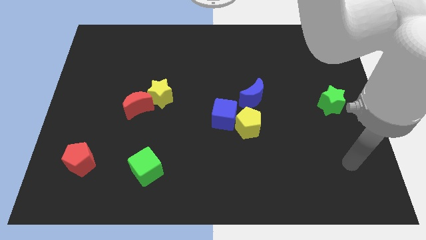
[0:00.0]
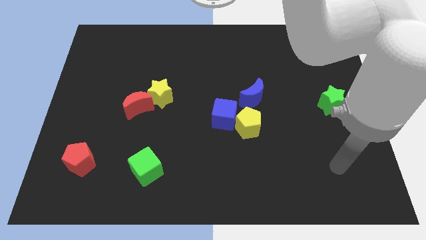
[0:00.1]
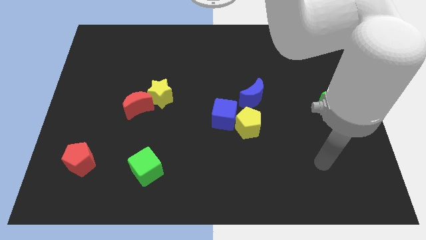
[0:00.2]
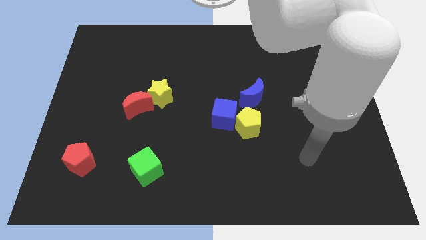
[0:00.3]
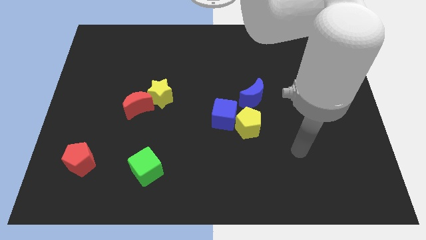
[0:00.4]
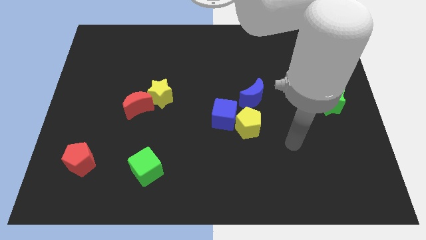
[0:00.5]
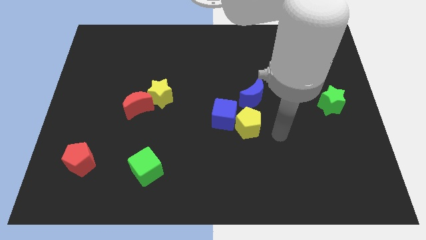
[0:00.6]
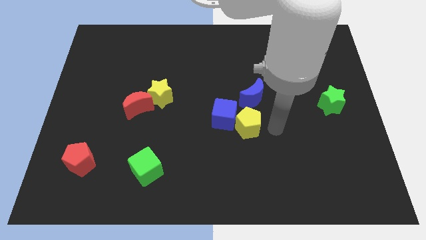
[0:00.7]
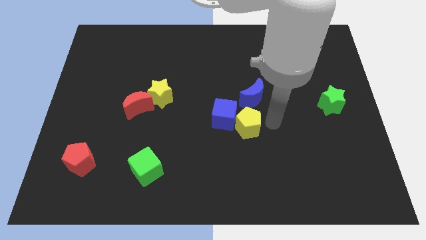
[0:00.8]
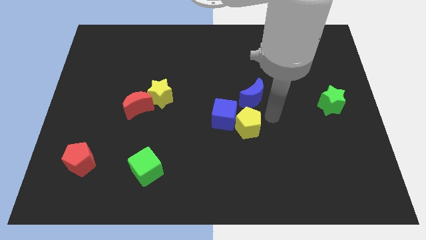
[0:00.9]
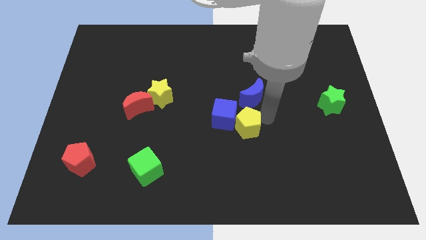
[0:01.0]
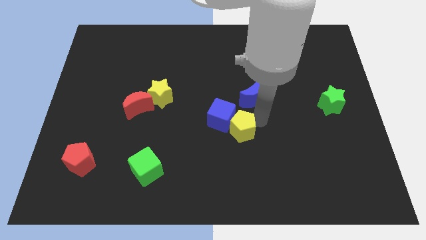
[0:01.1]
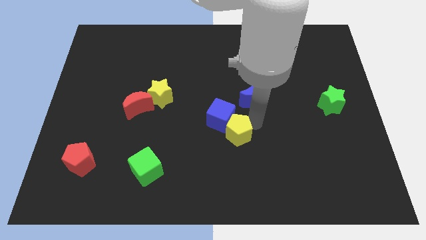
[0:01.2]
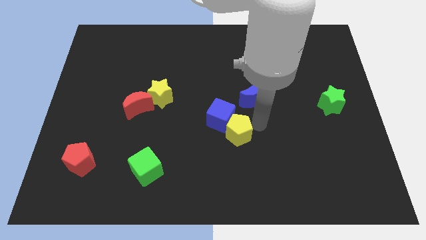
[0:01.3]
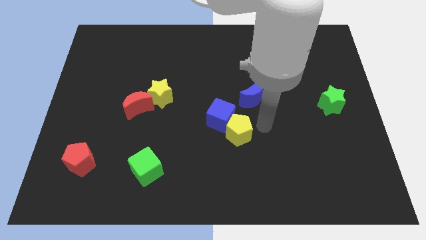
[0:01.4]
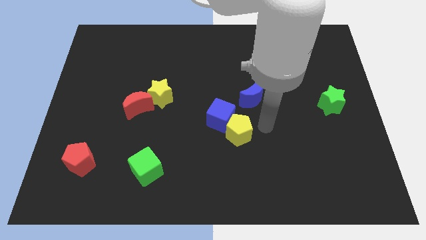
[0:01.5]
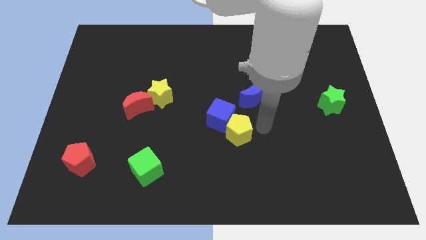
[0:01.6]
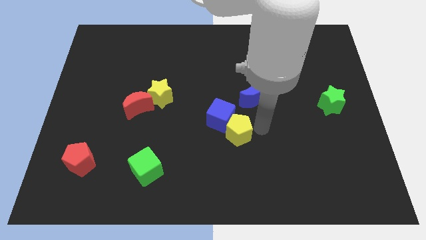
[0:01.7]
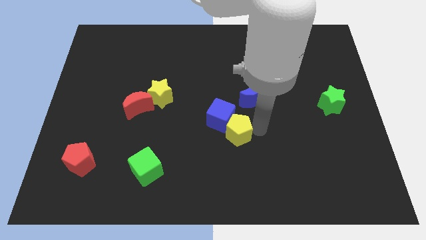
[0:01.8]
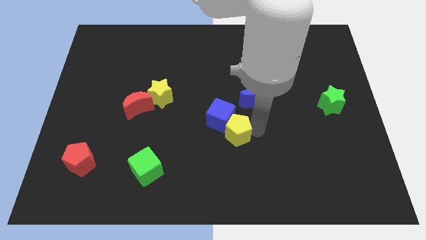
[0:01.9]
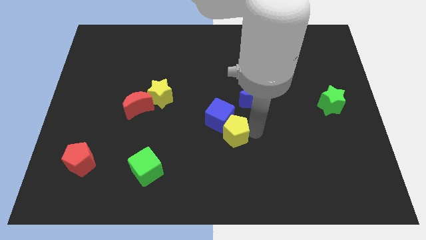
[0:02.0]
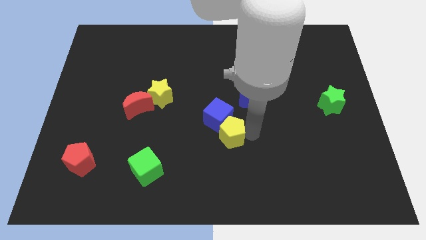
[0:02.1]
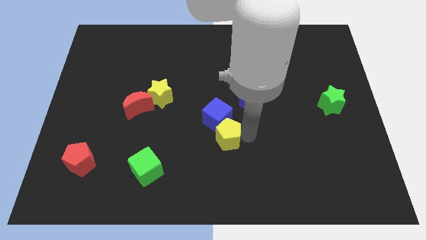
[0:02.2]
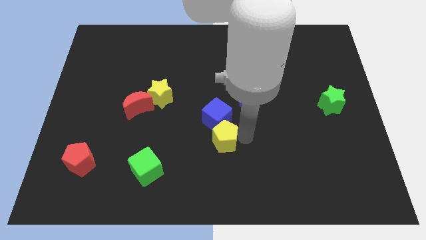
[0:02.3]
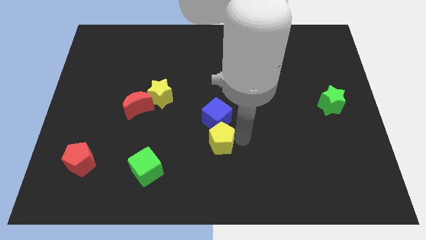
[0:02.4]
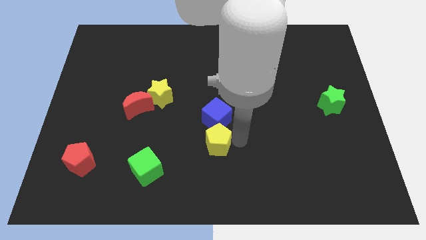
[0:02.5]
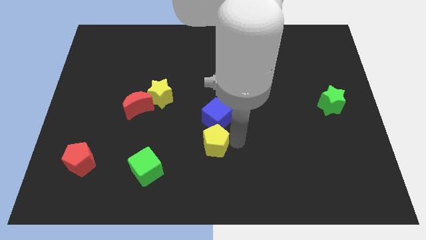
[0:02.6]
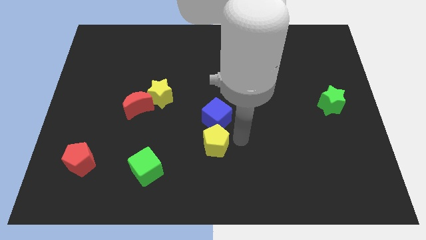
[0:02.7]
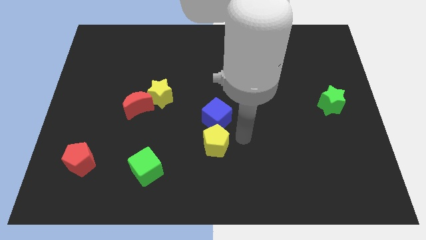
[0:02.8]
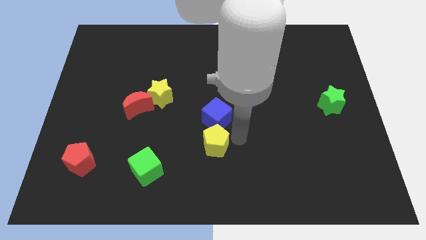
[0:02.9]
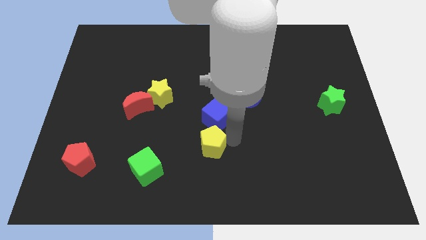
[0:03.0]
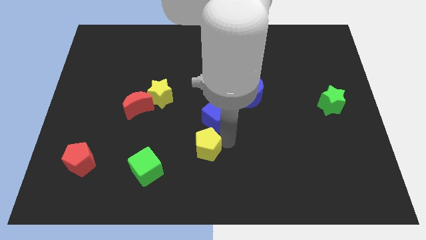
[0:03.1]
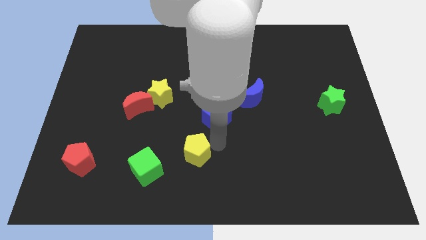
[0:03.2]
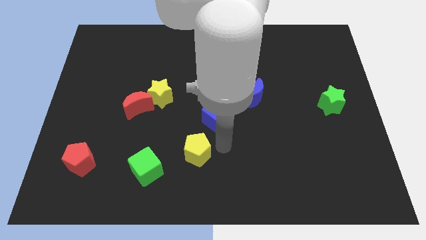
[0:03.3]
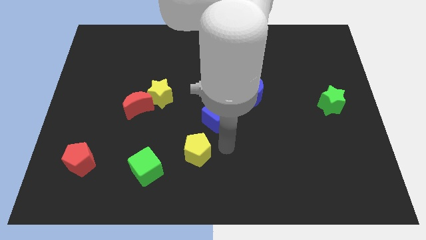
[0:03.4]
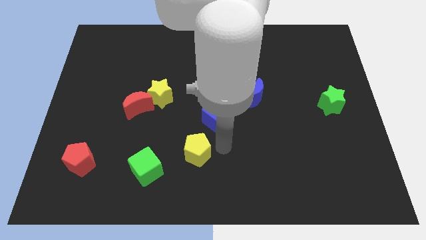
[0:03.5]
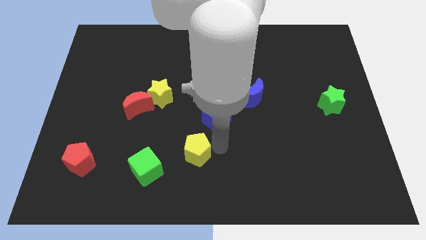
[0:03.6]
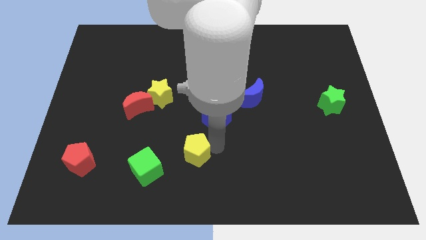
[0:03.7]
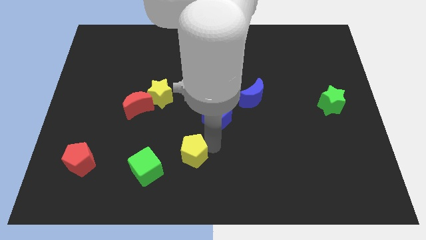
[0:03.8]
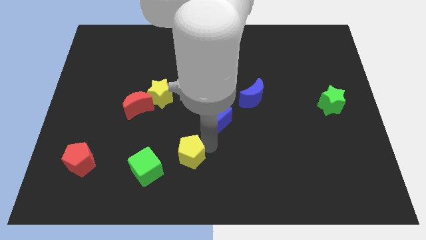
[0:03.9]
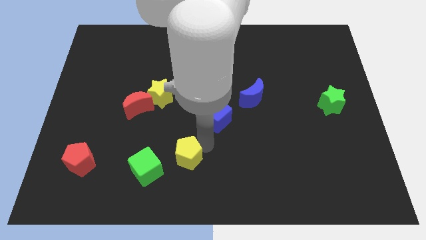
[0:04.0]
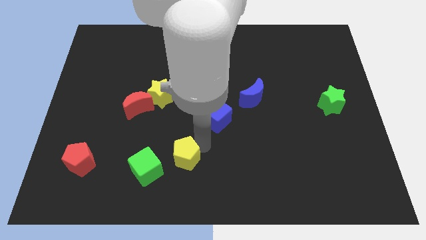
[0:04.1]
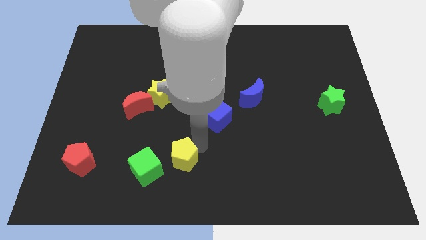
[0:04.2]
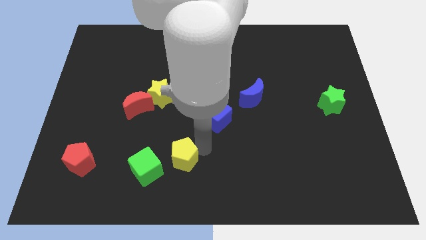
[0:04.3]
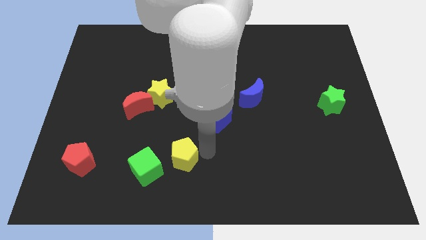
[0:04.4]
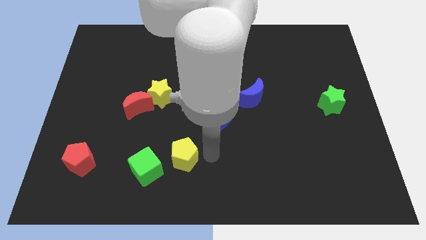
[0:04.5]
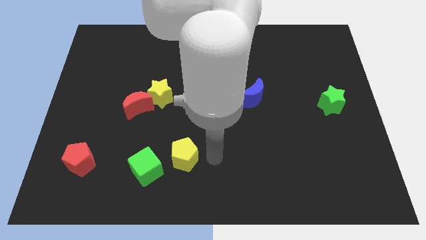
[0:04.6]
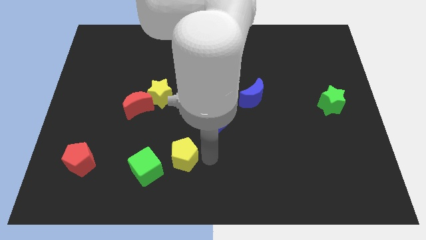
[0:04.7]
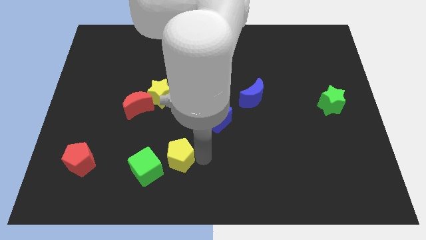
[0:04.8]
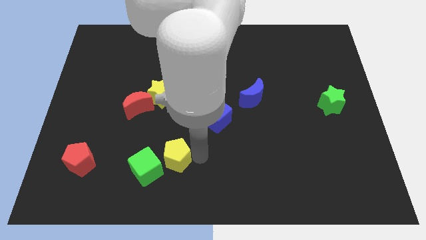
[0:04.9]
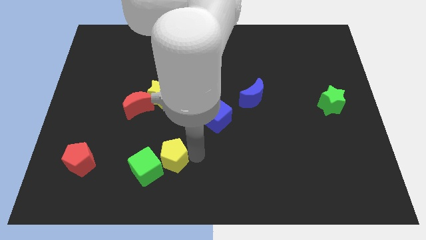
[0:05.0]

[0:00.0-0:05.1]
move the yellow pentagon to the green cube

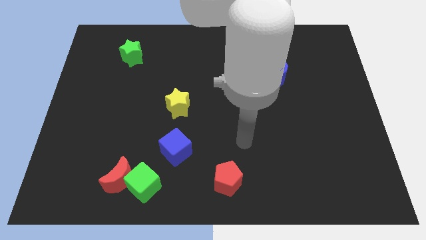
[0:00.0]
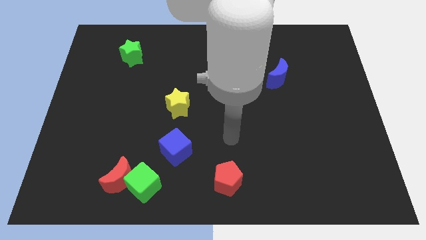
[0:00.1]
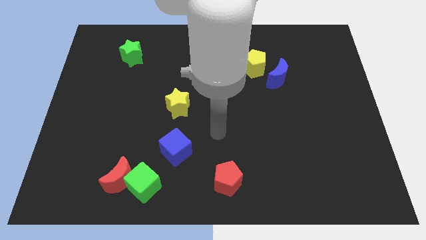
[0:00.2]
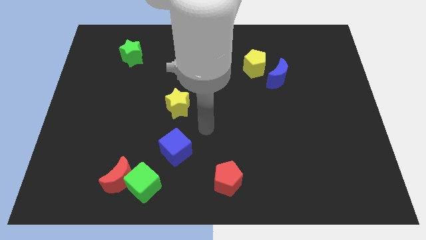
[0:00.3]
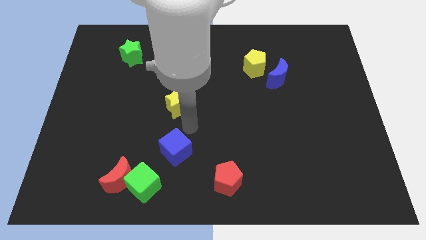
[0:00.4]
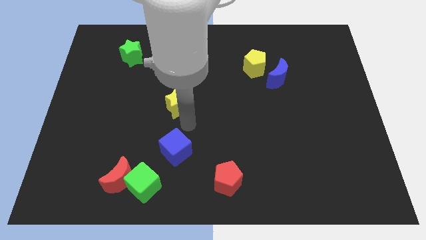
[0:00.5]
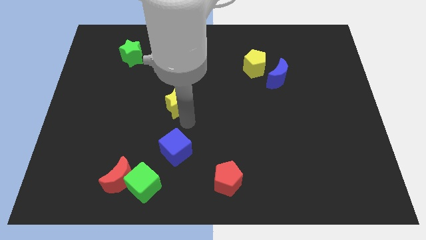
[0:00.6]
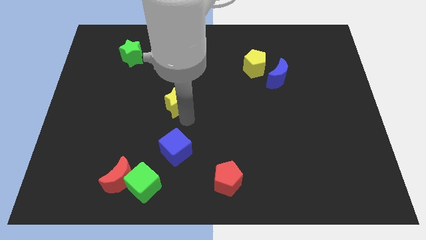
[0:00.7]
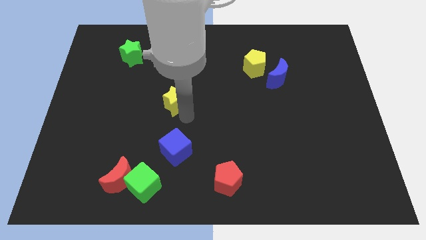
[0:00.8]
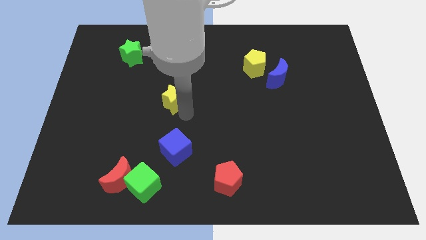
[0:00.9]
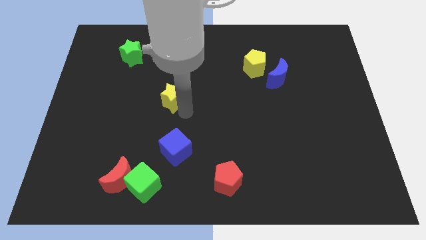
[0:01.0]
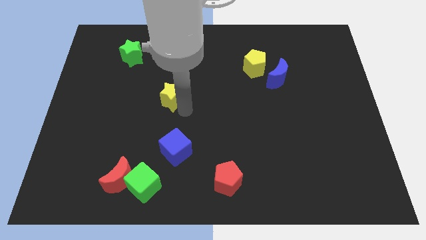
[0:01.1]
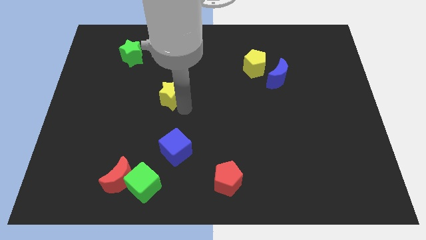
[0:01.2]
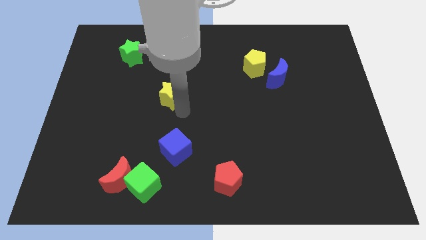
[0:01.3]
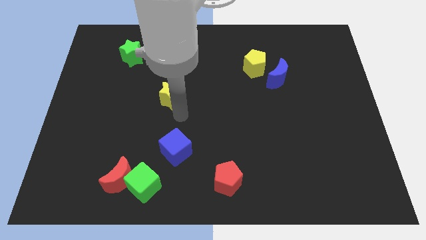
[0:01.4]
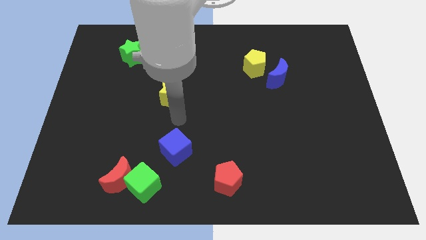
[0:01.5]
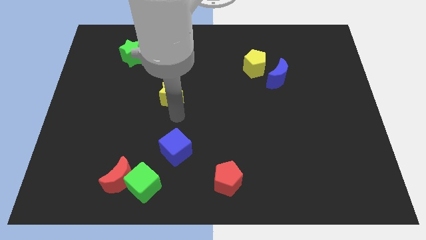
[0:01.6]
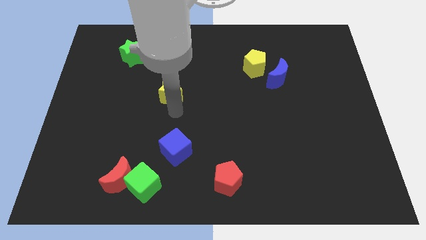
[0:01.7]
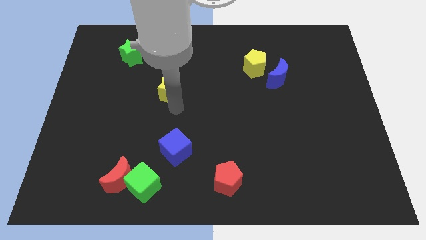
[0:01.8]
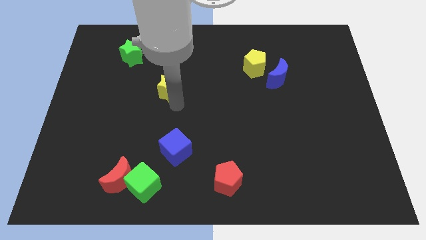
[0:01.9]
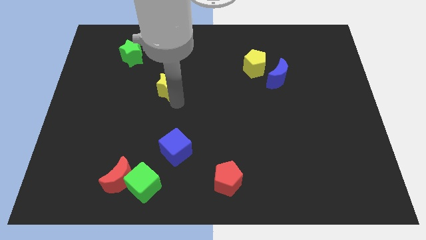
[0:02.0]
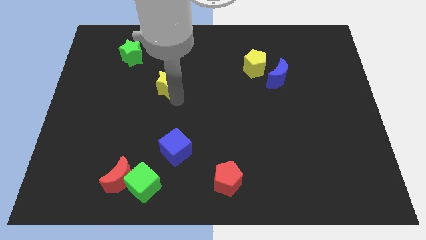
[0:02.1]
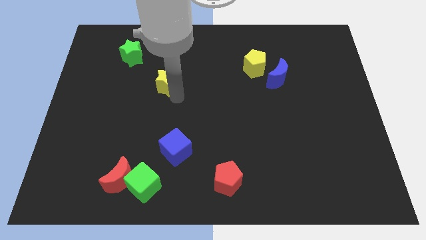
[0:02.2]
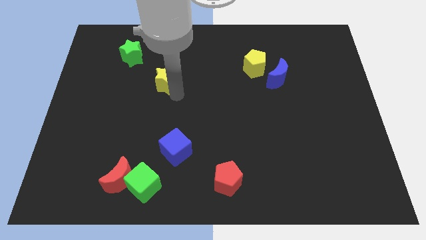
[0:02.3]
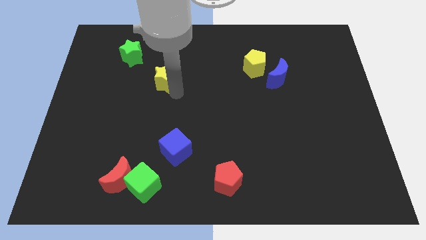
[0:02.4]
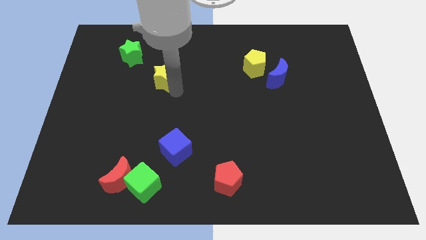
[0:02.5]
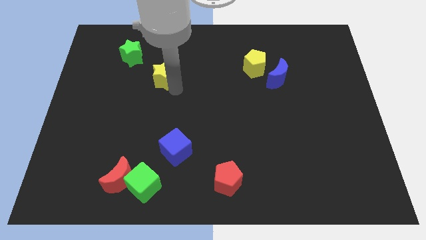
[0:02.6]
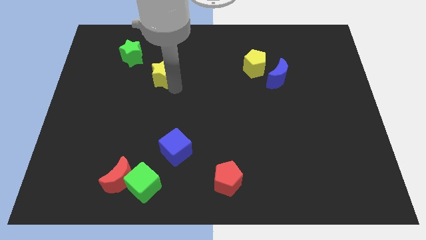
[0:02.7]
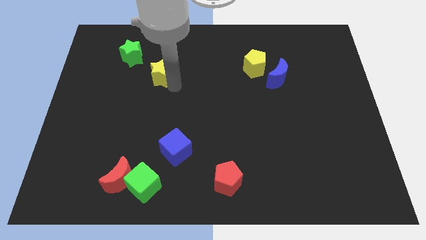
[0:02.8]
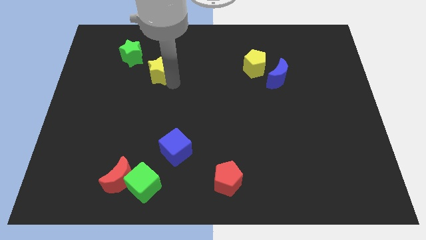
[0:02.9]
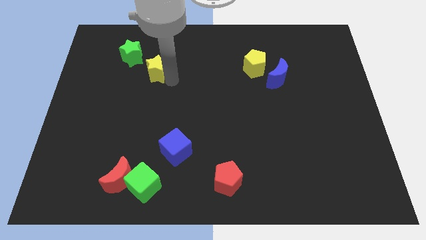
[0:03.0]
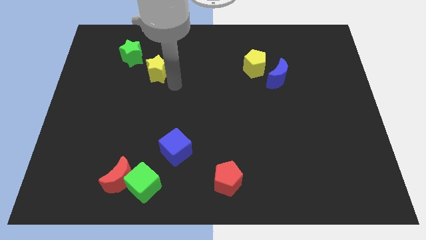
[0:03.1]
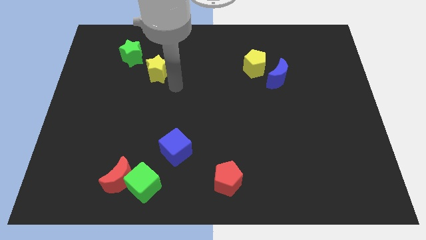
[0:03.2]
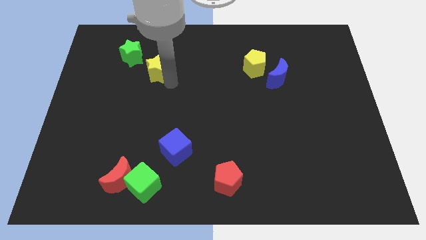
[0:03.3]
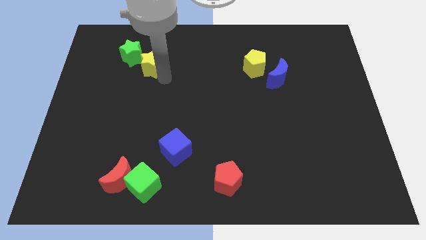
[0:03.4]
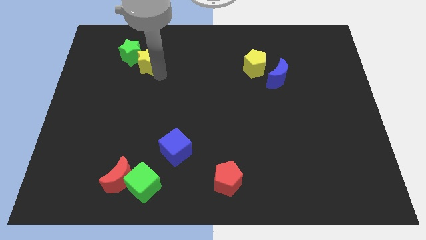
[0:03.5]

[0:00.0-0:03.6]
move the yellow star close to the green star
